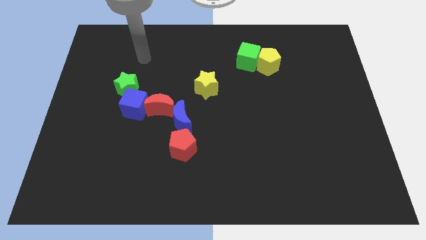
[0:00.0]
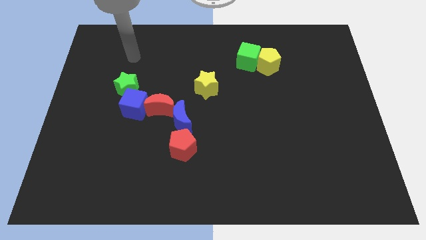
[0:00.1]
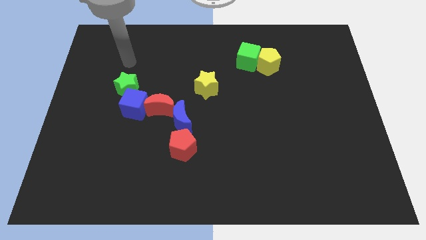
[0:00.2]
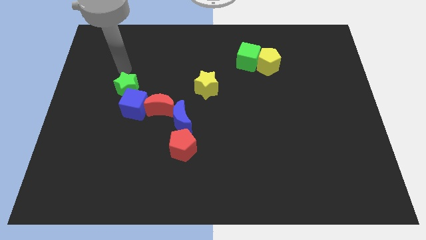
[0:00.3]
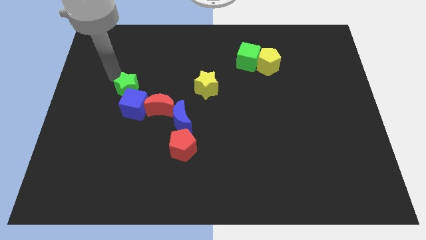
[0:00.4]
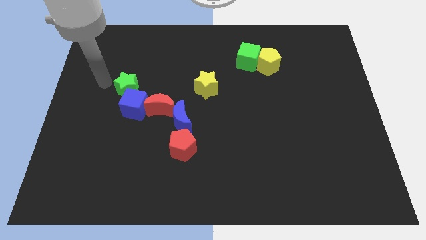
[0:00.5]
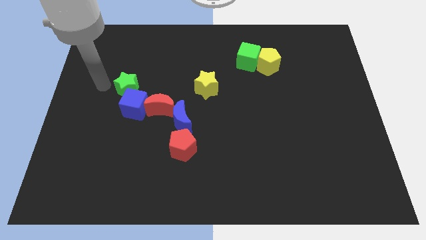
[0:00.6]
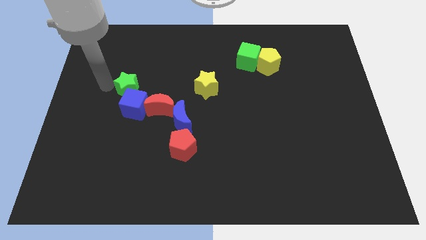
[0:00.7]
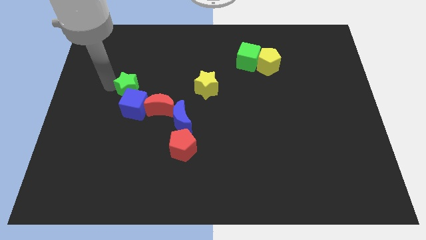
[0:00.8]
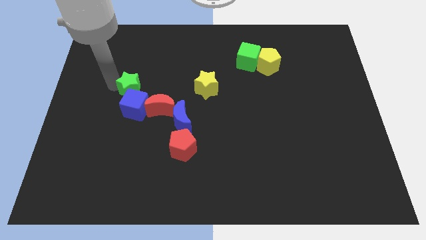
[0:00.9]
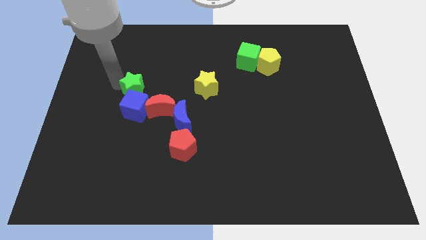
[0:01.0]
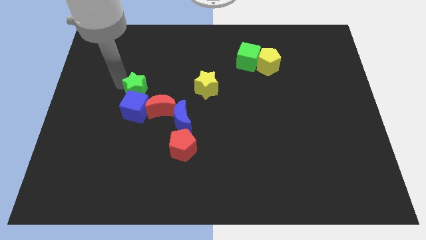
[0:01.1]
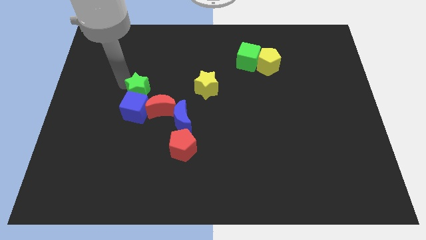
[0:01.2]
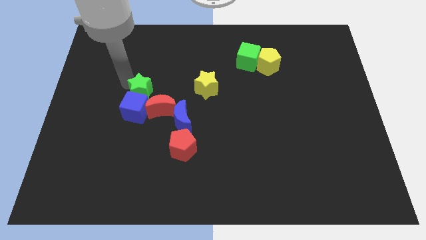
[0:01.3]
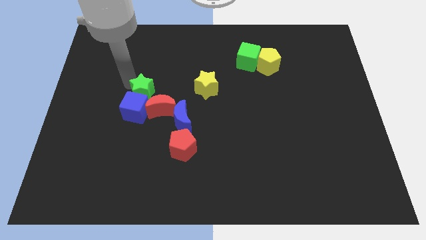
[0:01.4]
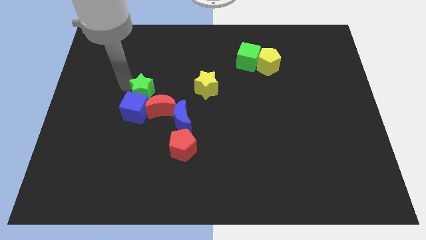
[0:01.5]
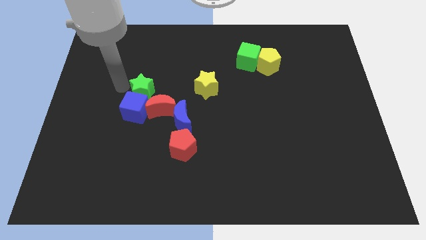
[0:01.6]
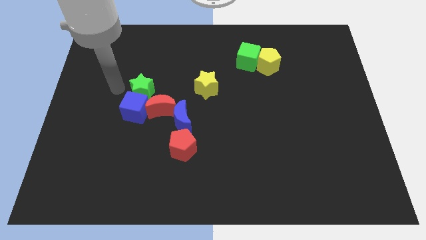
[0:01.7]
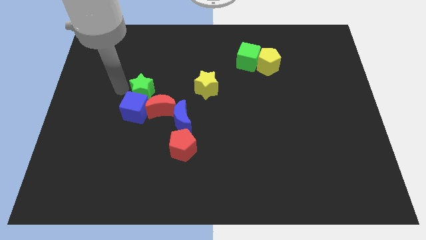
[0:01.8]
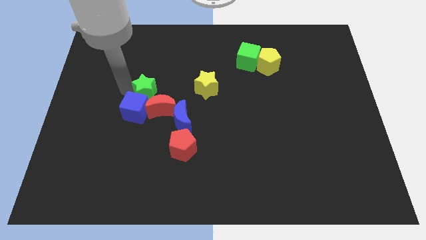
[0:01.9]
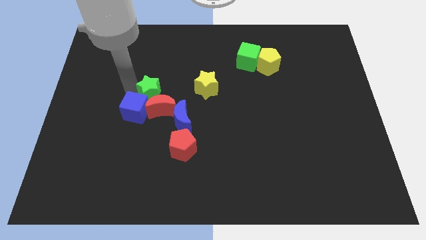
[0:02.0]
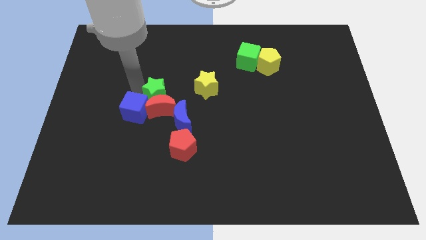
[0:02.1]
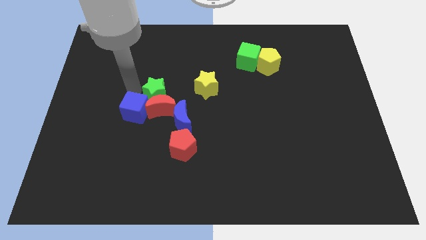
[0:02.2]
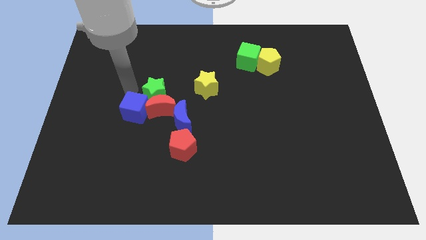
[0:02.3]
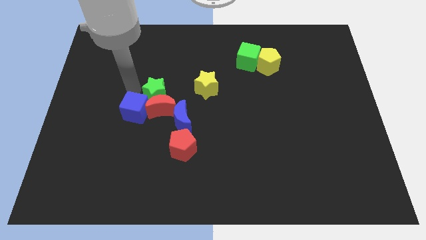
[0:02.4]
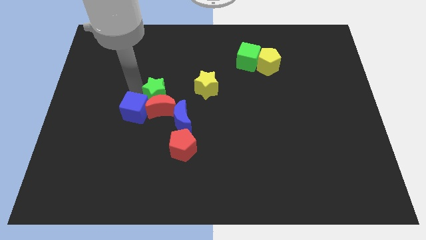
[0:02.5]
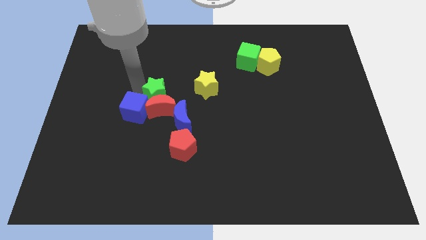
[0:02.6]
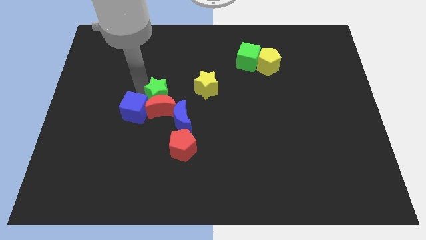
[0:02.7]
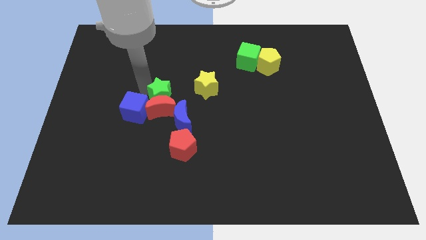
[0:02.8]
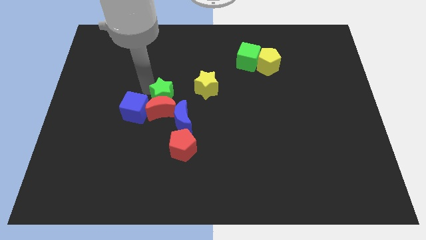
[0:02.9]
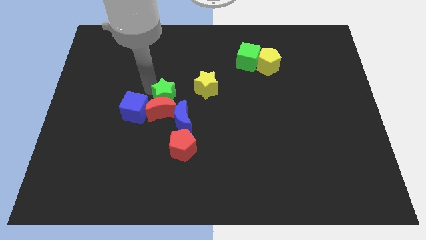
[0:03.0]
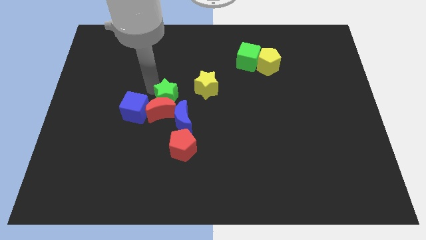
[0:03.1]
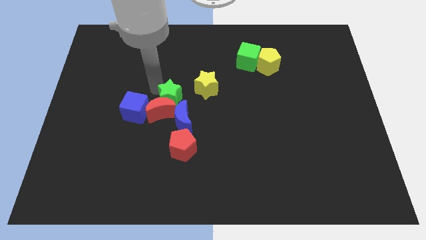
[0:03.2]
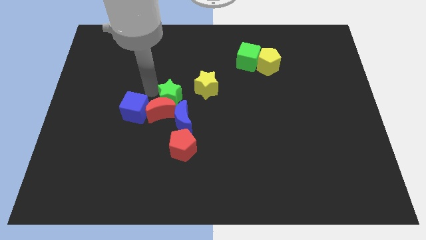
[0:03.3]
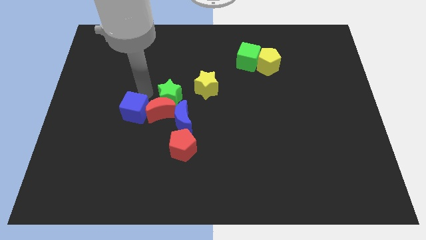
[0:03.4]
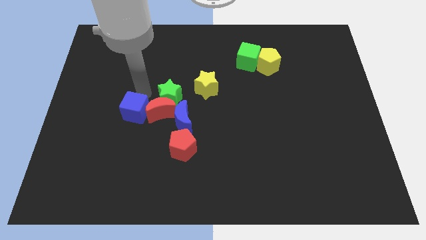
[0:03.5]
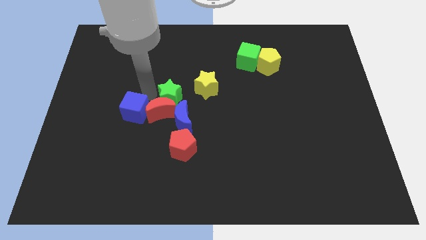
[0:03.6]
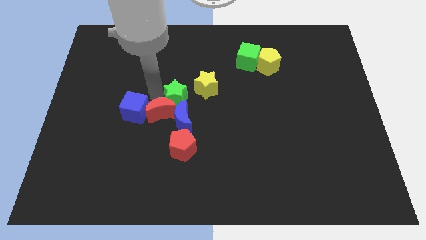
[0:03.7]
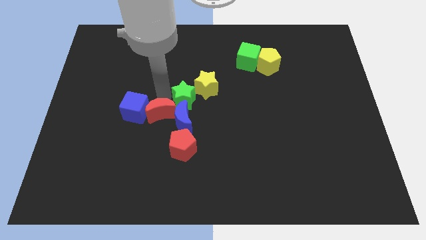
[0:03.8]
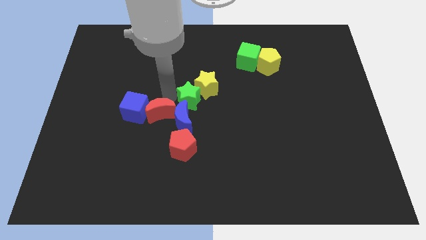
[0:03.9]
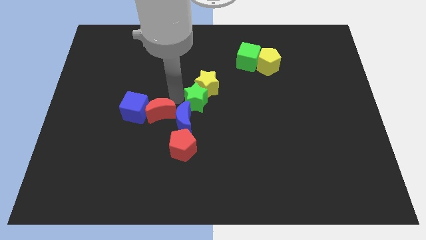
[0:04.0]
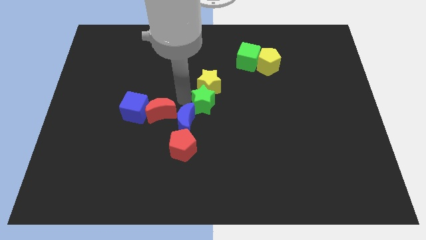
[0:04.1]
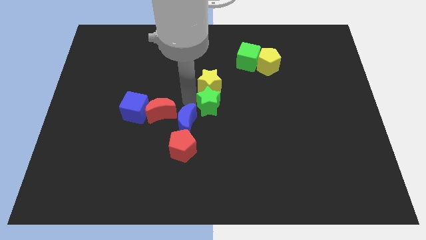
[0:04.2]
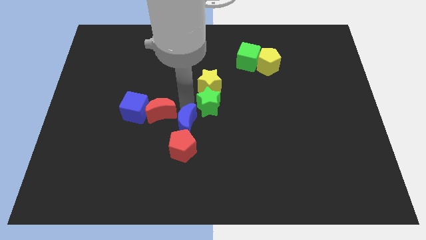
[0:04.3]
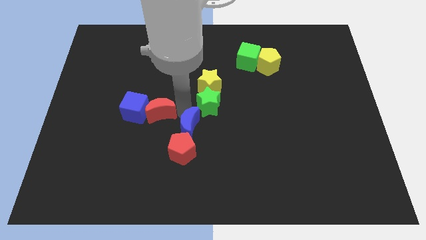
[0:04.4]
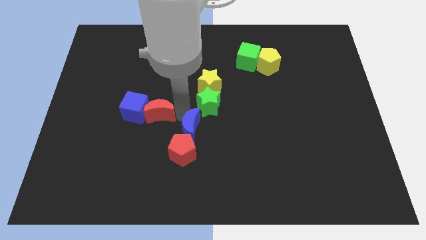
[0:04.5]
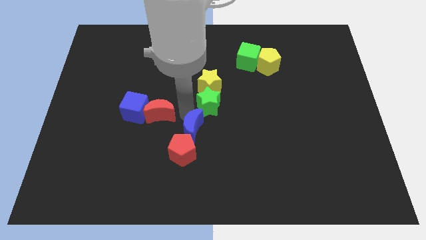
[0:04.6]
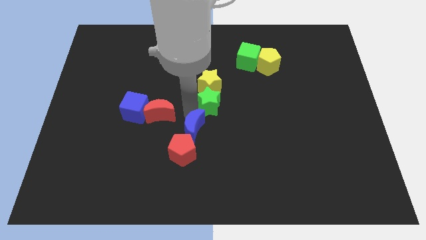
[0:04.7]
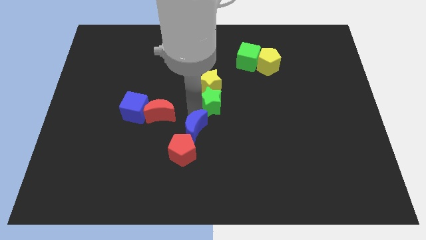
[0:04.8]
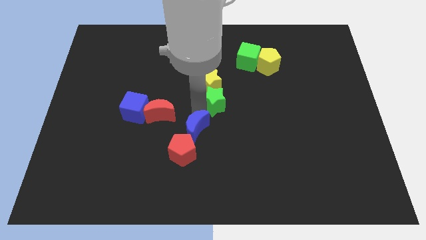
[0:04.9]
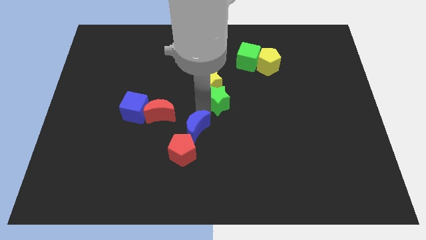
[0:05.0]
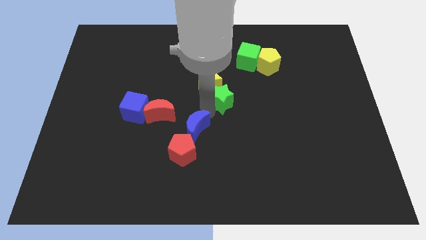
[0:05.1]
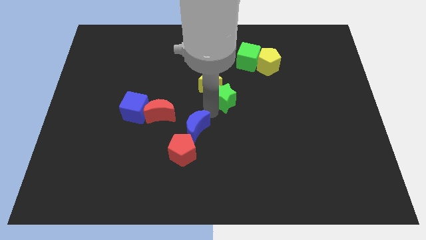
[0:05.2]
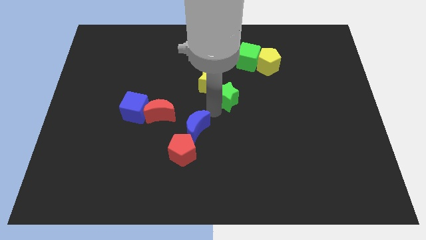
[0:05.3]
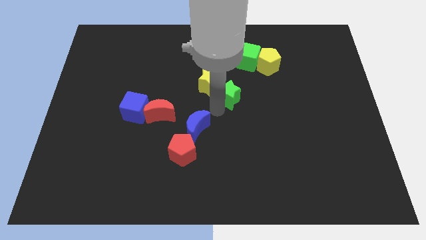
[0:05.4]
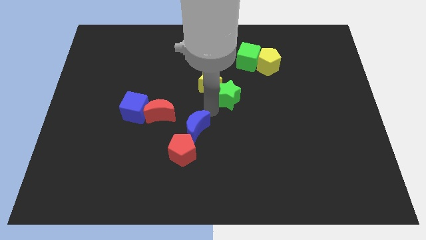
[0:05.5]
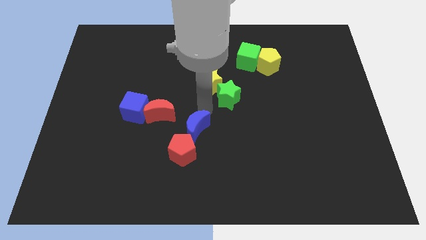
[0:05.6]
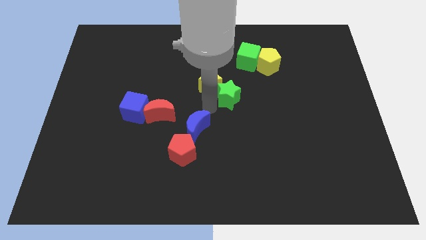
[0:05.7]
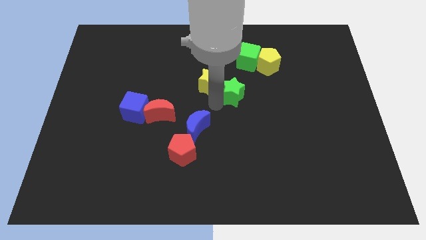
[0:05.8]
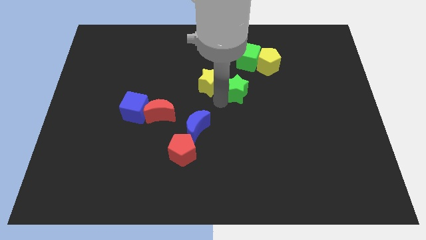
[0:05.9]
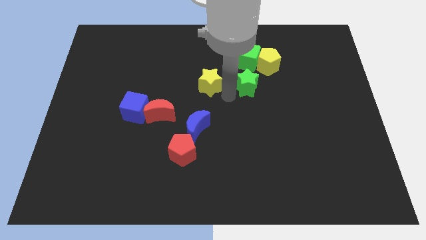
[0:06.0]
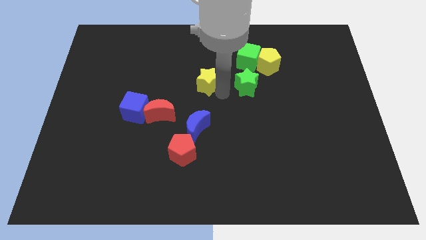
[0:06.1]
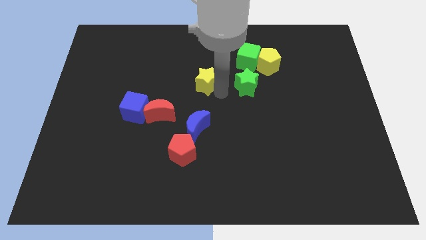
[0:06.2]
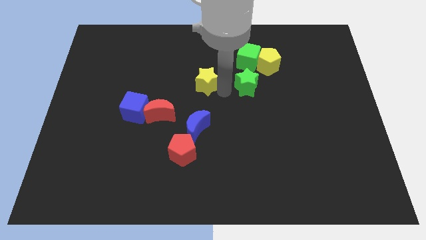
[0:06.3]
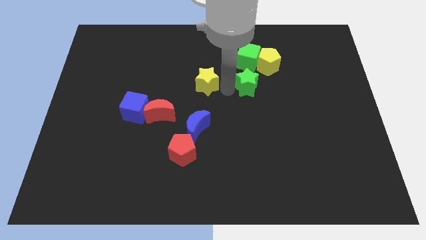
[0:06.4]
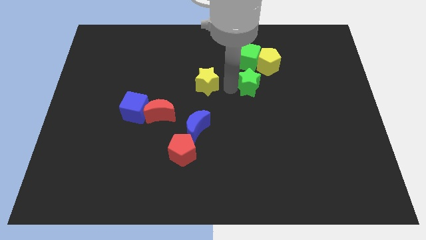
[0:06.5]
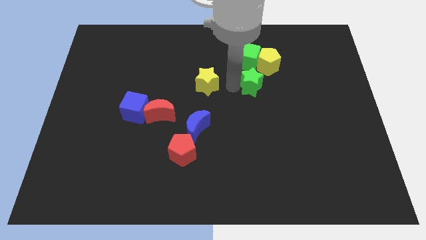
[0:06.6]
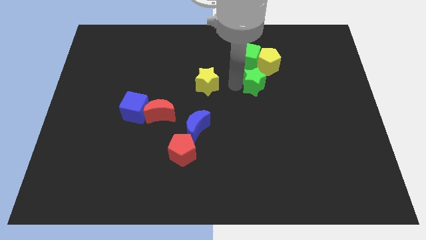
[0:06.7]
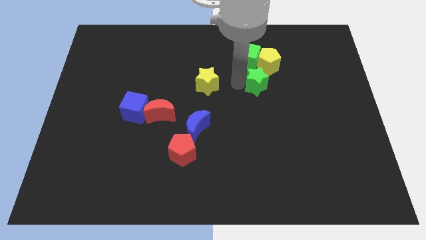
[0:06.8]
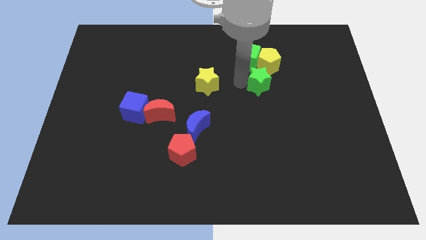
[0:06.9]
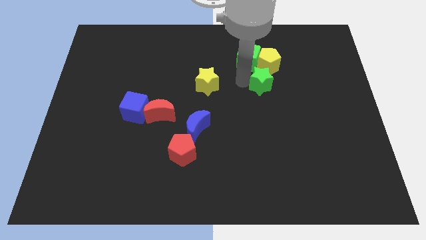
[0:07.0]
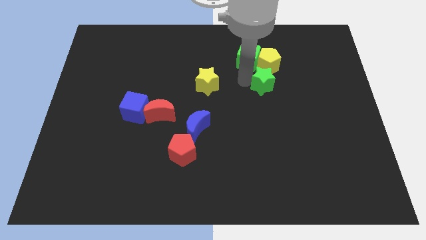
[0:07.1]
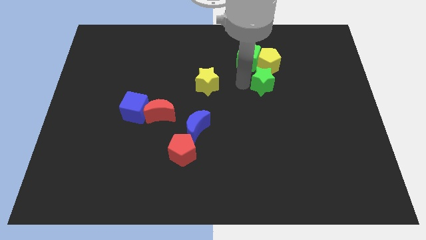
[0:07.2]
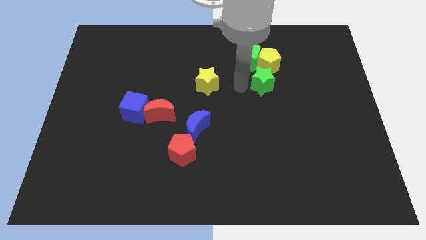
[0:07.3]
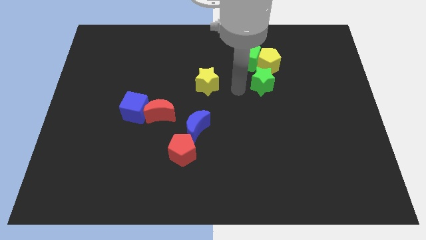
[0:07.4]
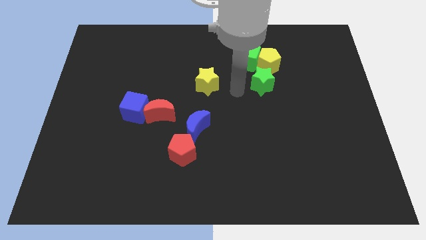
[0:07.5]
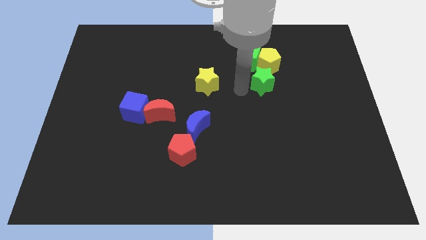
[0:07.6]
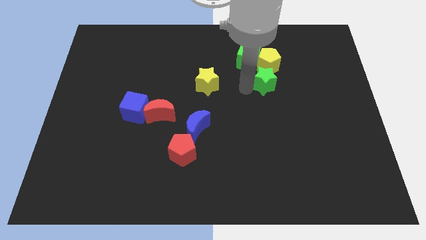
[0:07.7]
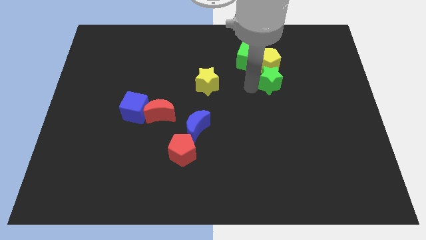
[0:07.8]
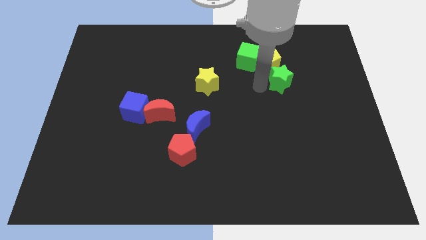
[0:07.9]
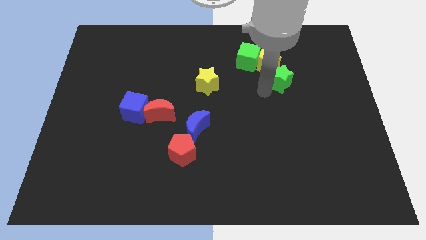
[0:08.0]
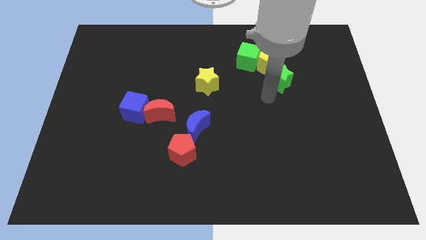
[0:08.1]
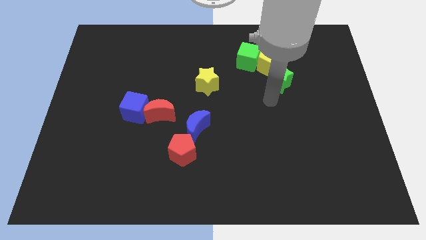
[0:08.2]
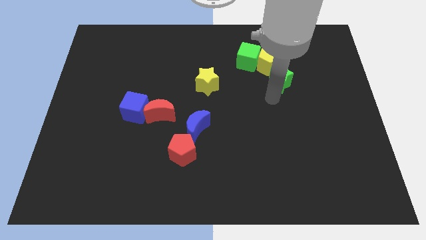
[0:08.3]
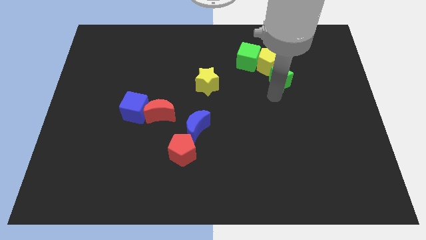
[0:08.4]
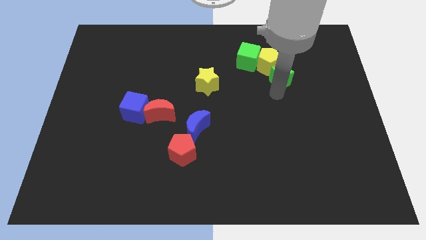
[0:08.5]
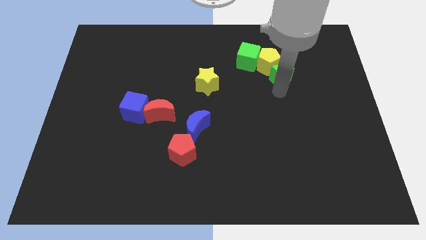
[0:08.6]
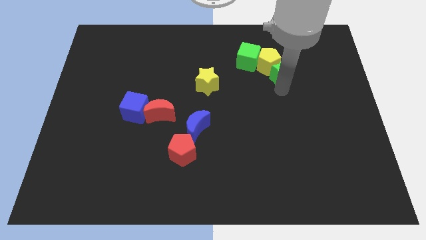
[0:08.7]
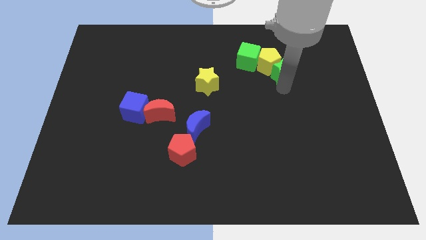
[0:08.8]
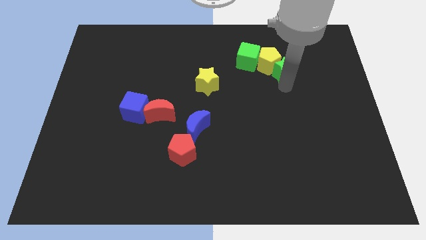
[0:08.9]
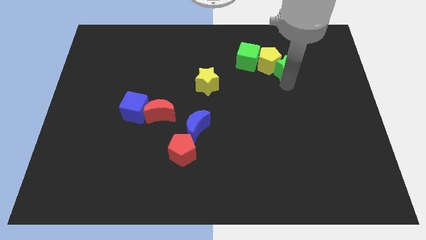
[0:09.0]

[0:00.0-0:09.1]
push the green star right of the green cube
